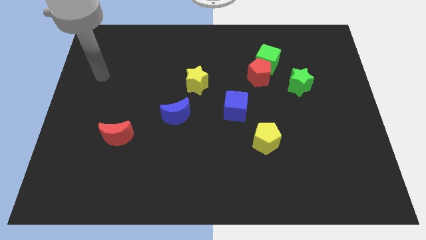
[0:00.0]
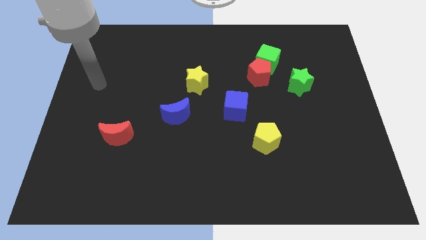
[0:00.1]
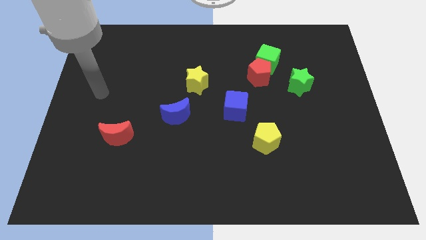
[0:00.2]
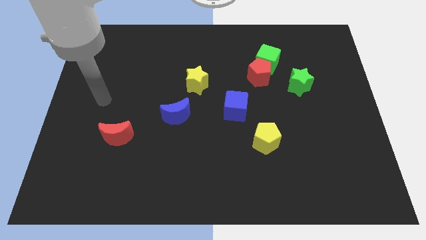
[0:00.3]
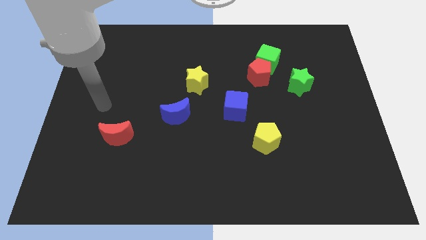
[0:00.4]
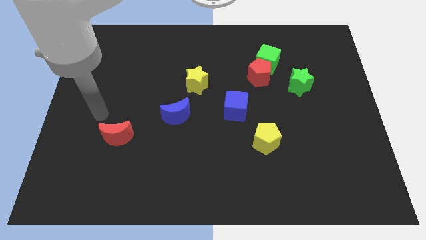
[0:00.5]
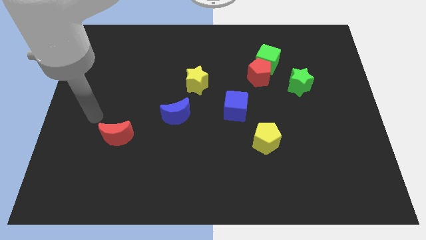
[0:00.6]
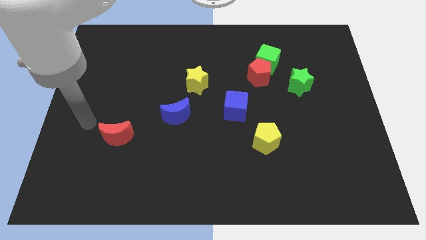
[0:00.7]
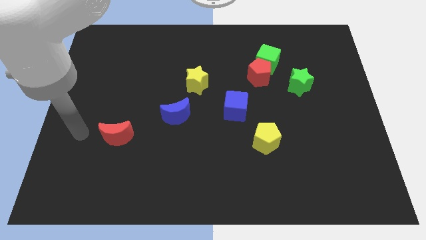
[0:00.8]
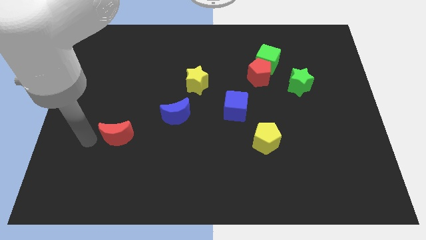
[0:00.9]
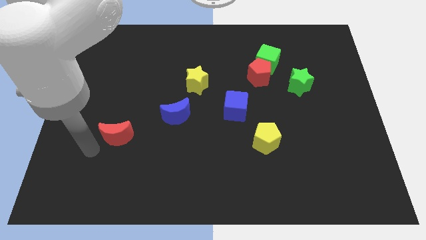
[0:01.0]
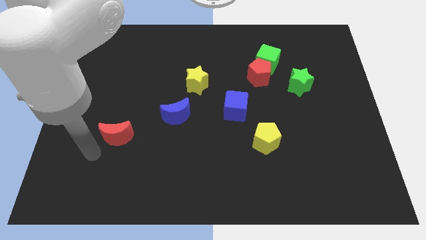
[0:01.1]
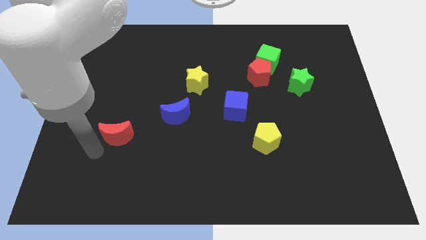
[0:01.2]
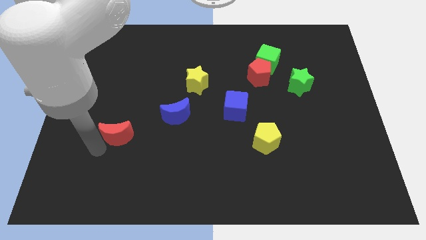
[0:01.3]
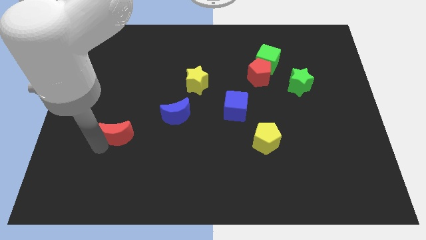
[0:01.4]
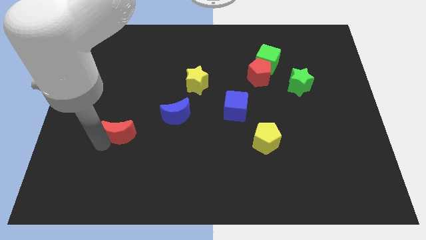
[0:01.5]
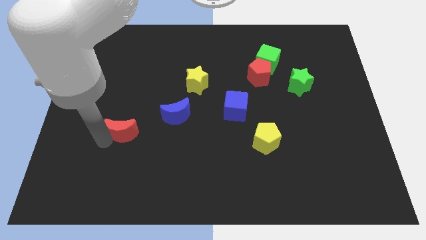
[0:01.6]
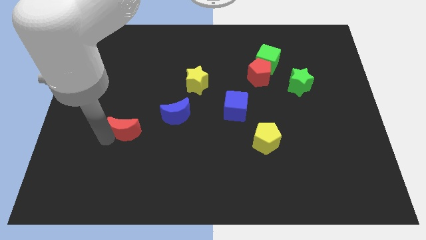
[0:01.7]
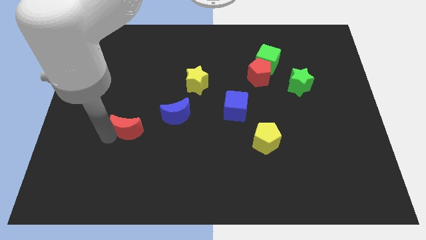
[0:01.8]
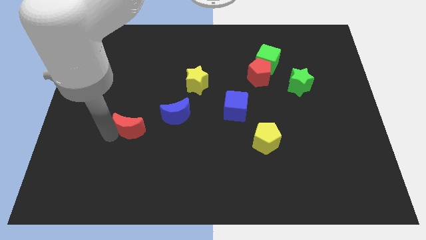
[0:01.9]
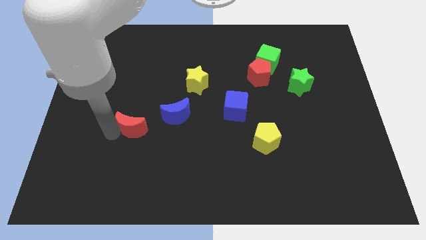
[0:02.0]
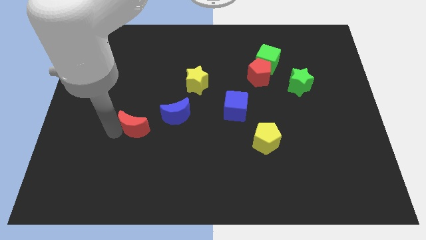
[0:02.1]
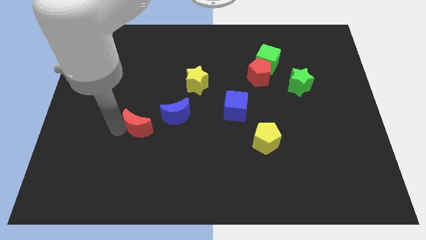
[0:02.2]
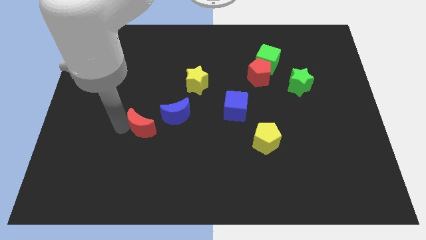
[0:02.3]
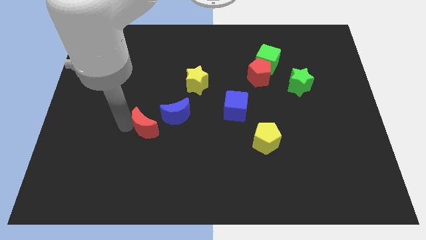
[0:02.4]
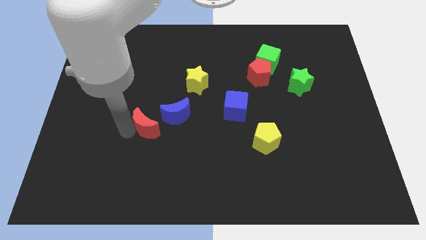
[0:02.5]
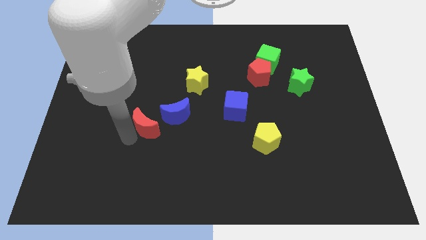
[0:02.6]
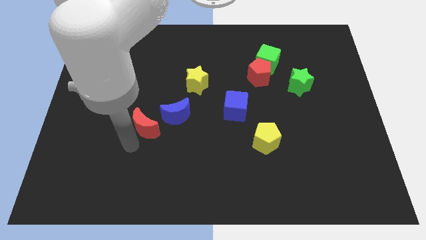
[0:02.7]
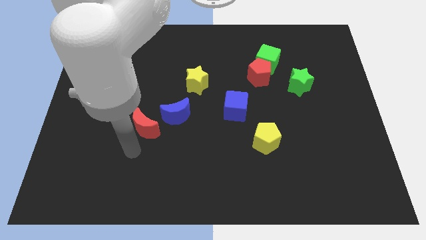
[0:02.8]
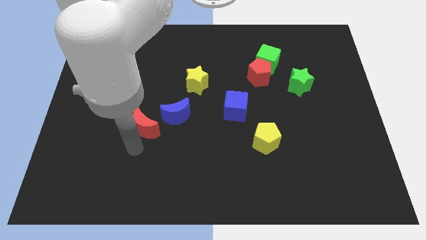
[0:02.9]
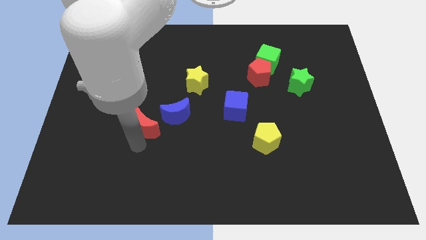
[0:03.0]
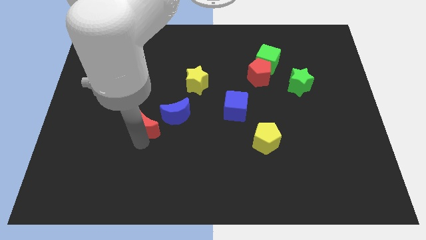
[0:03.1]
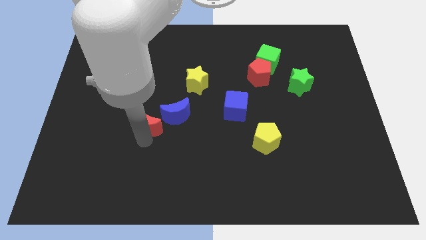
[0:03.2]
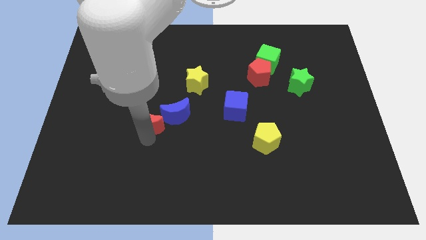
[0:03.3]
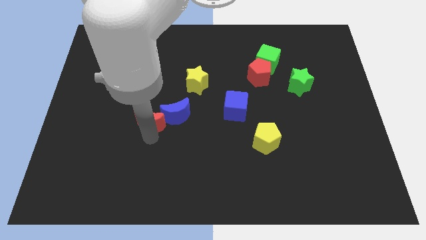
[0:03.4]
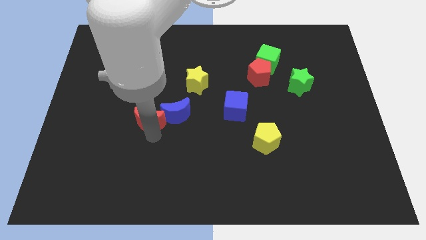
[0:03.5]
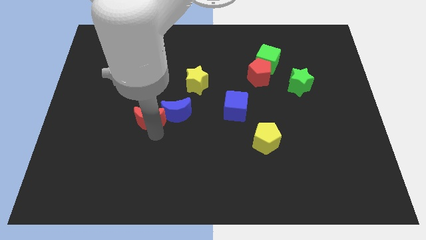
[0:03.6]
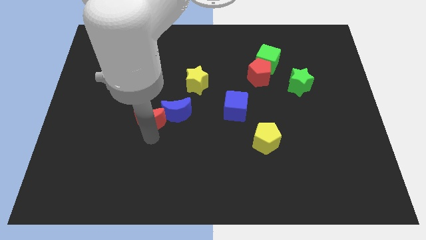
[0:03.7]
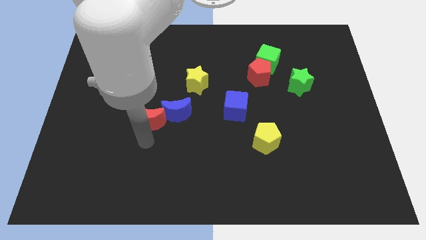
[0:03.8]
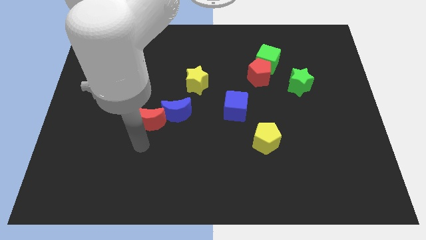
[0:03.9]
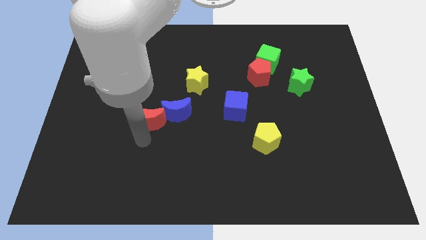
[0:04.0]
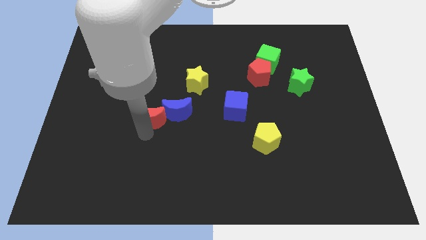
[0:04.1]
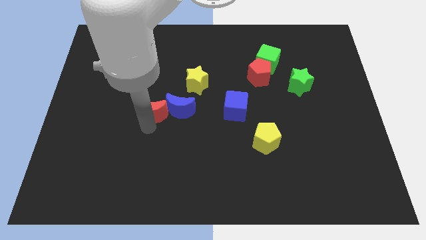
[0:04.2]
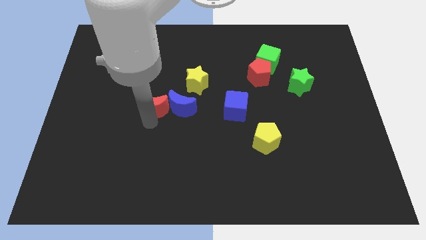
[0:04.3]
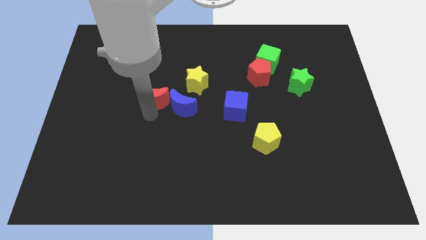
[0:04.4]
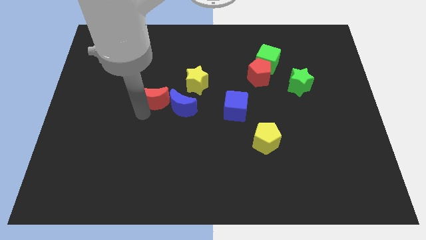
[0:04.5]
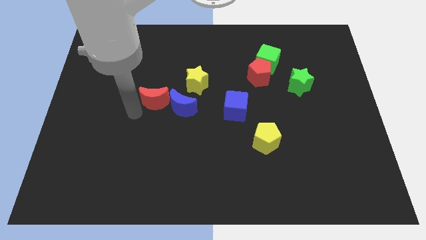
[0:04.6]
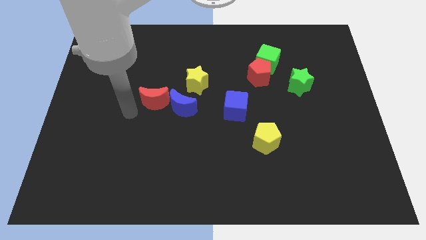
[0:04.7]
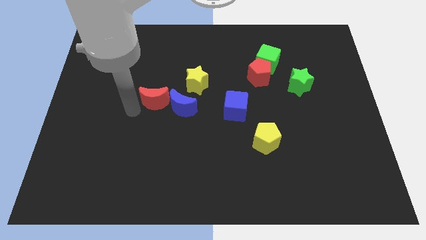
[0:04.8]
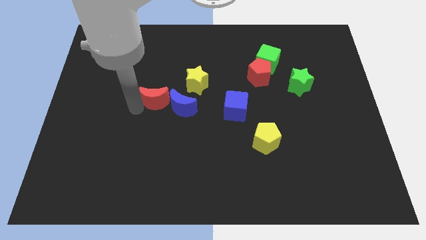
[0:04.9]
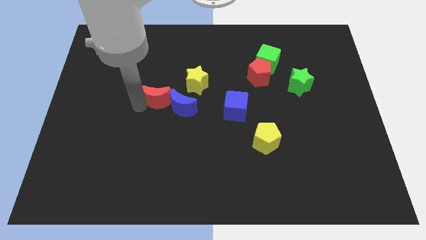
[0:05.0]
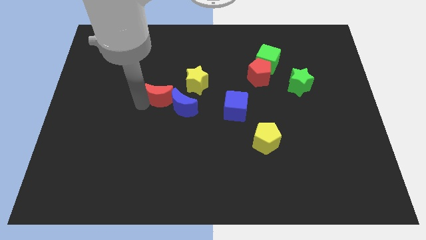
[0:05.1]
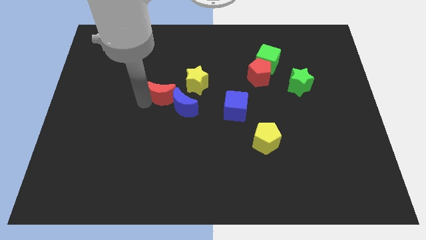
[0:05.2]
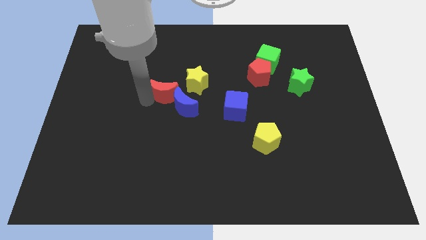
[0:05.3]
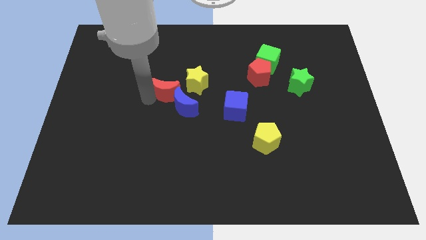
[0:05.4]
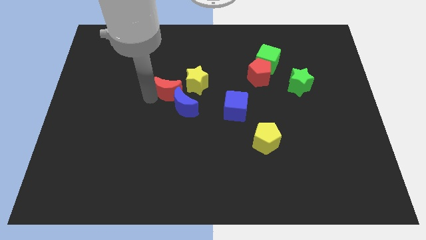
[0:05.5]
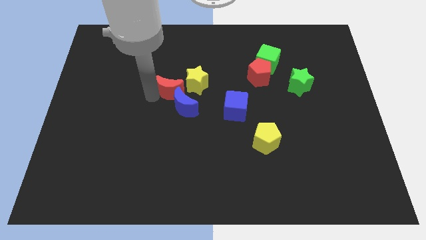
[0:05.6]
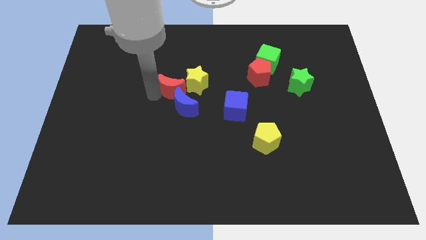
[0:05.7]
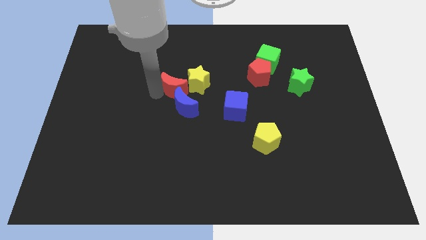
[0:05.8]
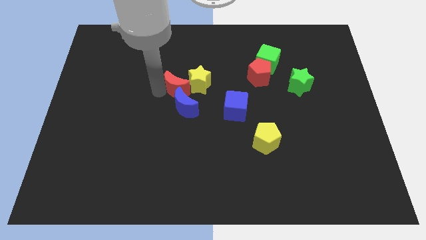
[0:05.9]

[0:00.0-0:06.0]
put the red moon close to the yellow star

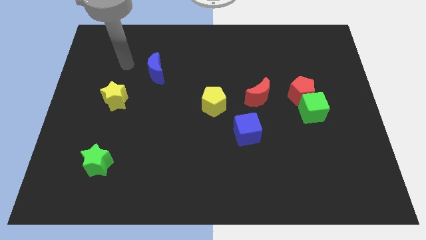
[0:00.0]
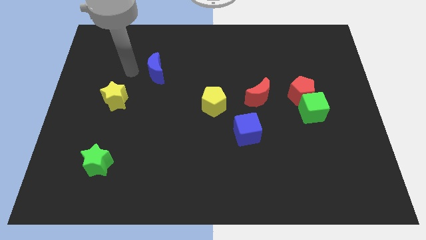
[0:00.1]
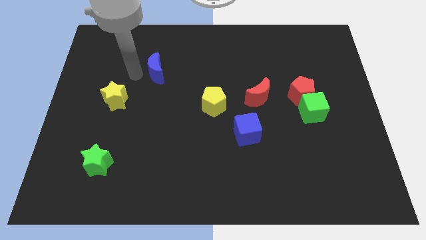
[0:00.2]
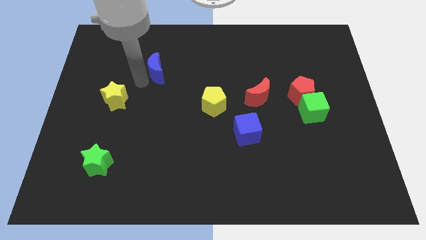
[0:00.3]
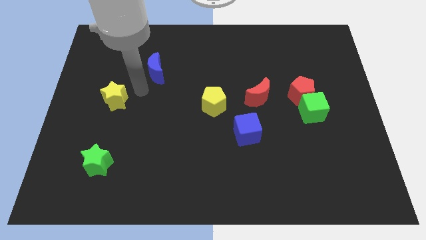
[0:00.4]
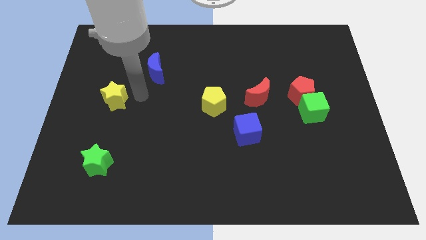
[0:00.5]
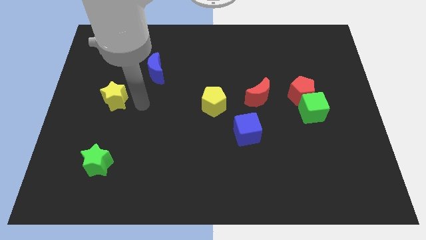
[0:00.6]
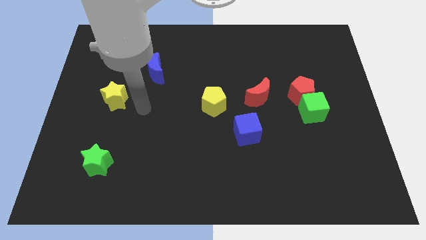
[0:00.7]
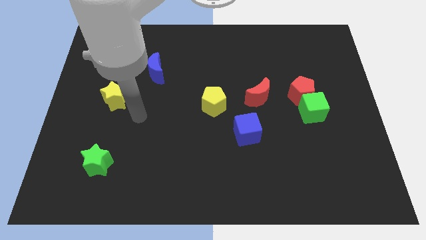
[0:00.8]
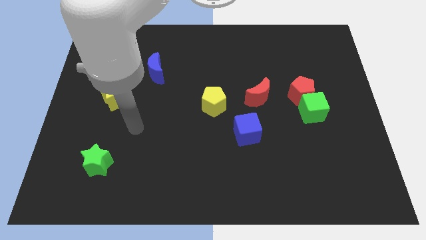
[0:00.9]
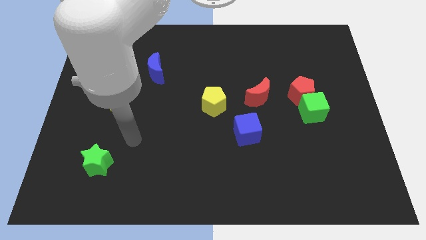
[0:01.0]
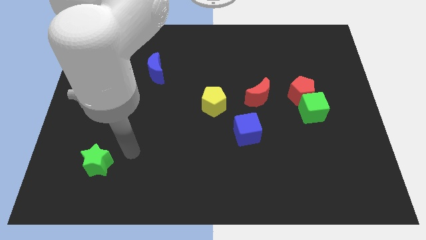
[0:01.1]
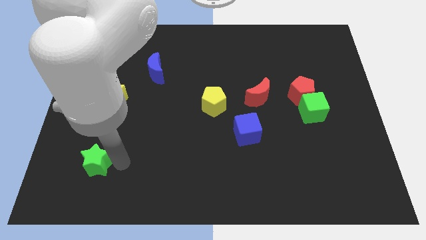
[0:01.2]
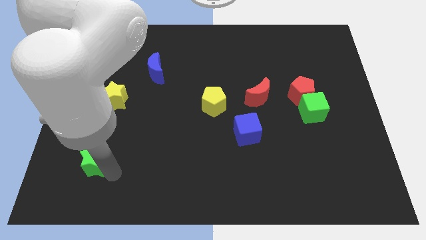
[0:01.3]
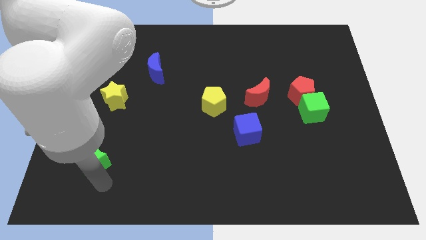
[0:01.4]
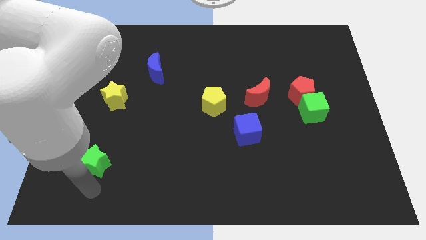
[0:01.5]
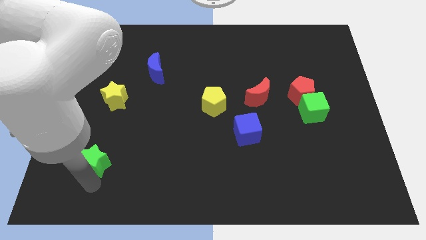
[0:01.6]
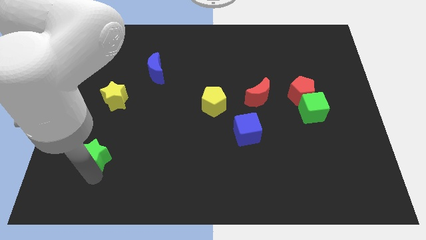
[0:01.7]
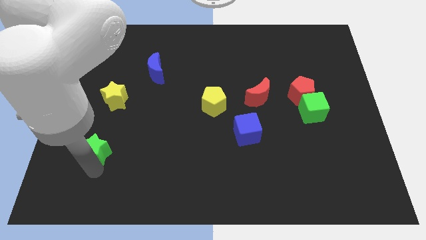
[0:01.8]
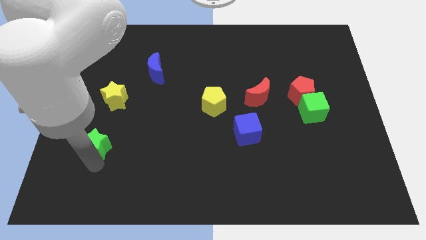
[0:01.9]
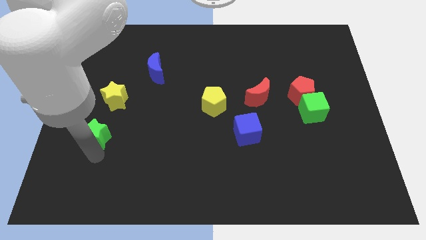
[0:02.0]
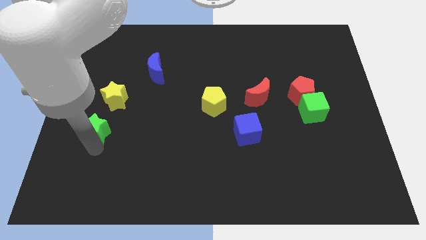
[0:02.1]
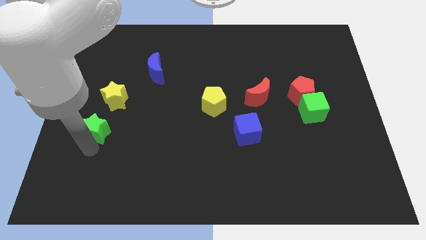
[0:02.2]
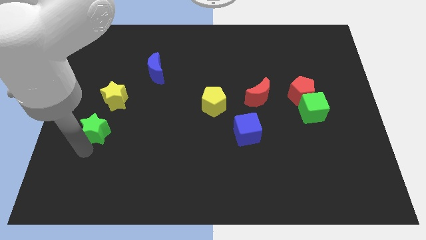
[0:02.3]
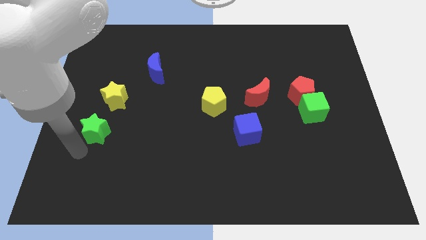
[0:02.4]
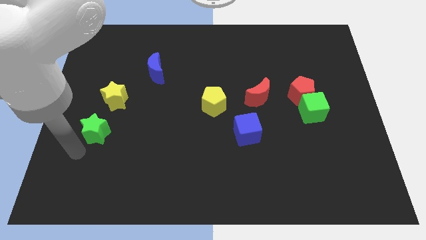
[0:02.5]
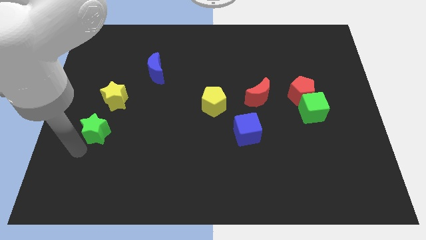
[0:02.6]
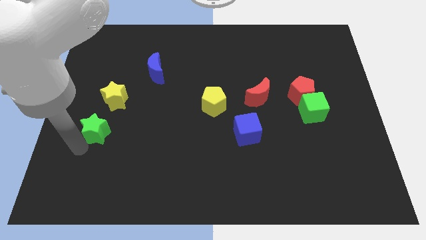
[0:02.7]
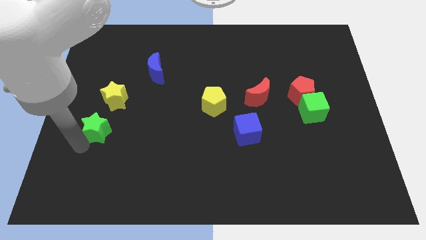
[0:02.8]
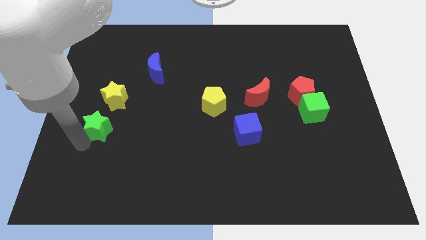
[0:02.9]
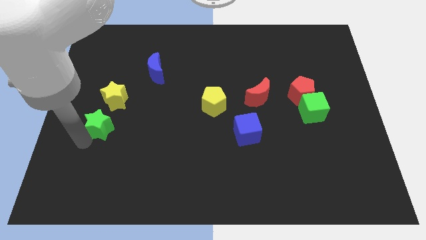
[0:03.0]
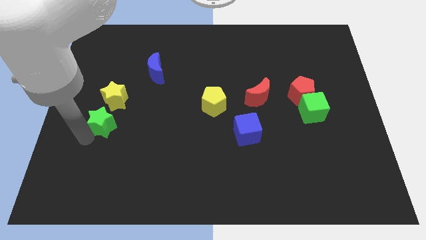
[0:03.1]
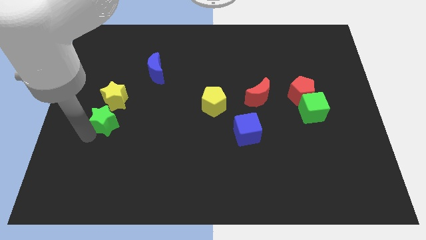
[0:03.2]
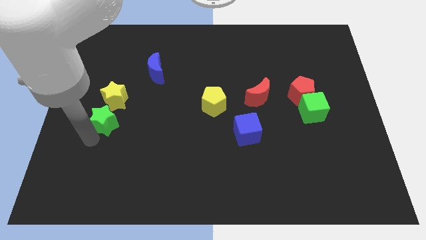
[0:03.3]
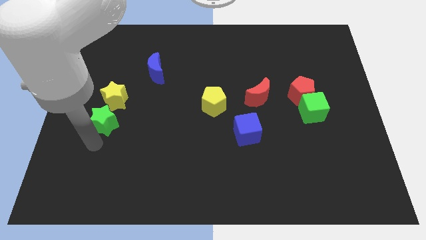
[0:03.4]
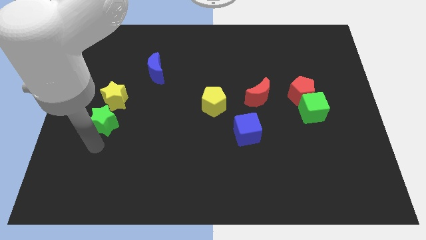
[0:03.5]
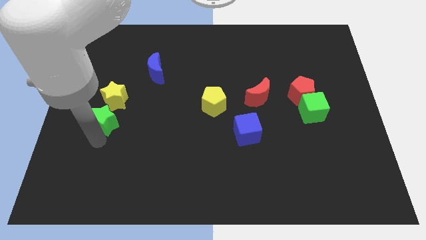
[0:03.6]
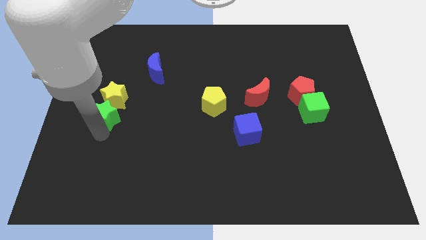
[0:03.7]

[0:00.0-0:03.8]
slide the green star towards the yellow star
